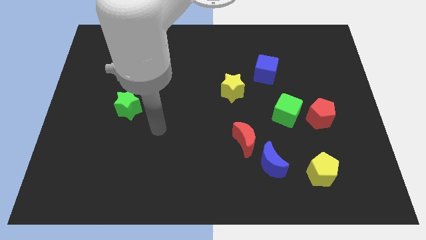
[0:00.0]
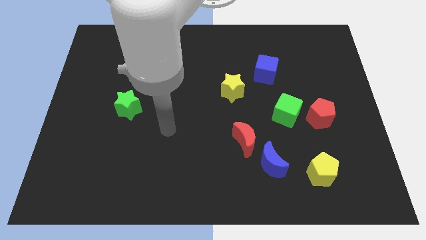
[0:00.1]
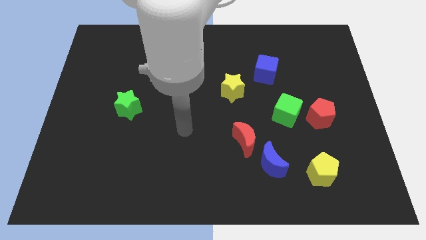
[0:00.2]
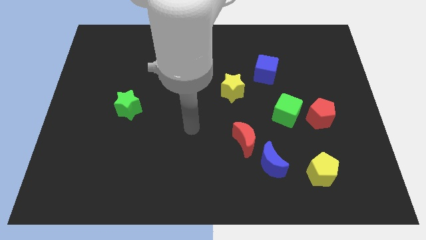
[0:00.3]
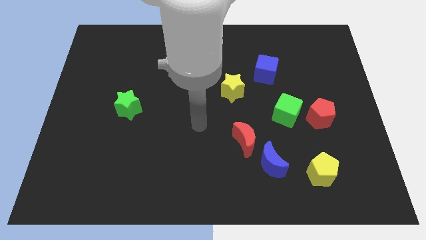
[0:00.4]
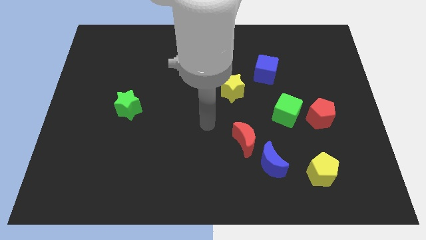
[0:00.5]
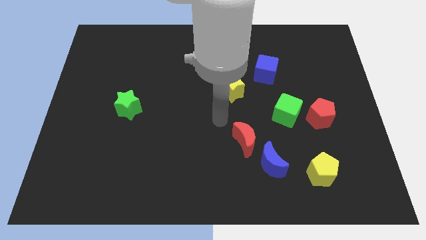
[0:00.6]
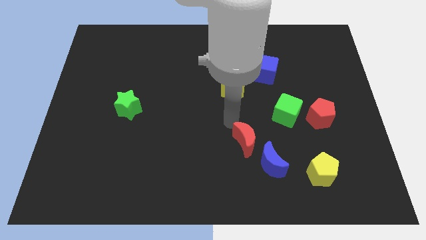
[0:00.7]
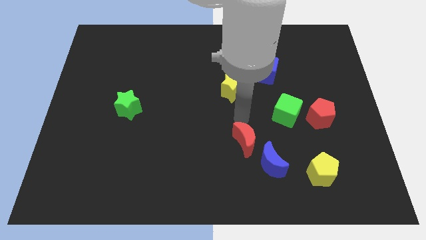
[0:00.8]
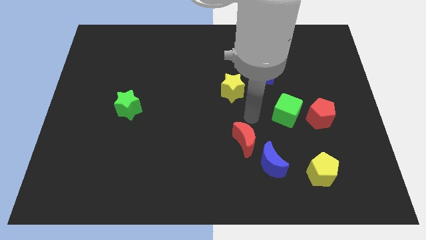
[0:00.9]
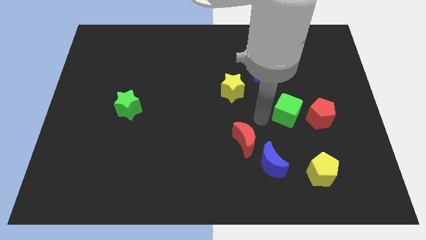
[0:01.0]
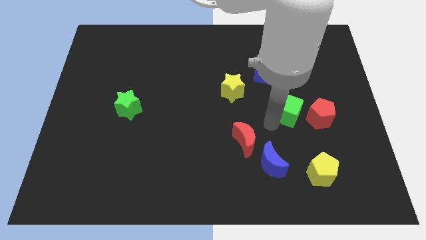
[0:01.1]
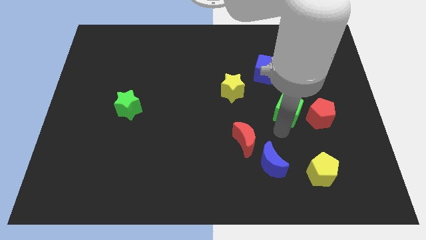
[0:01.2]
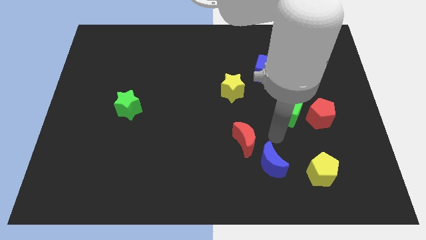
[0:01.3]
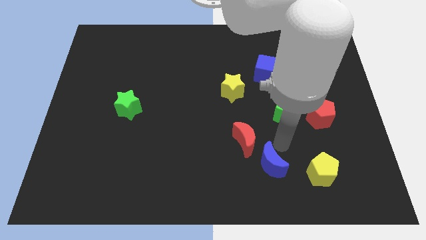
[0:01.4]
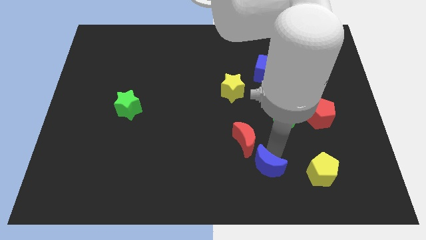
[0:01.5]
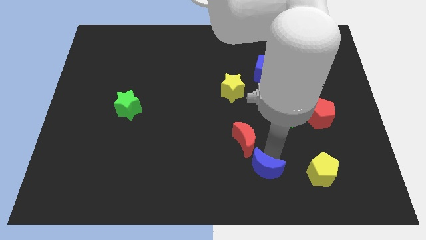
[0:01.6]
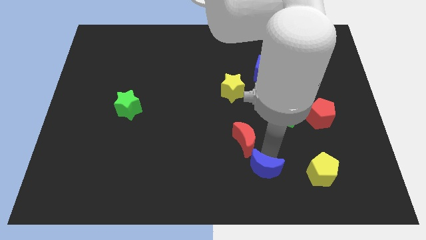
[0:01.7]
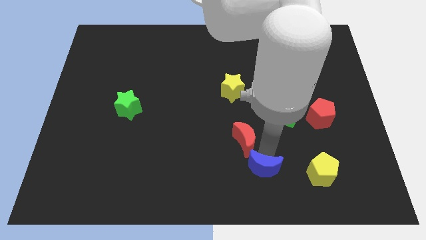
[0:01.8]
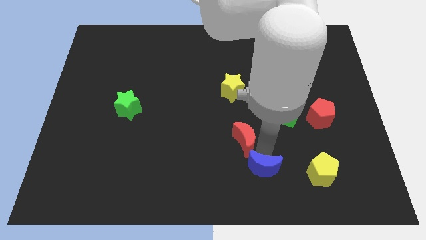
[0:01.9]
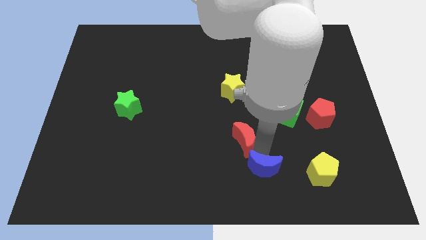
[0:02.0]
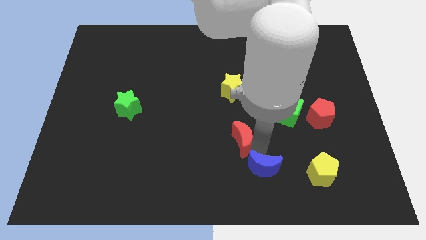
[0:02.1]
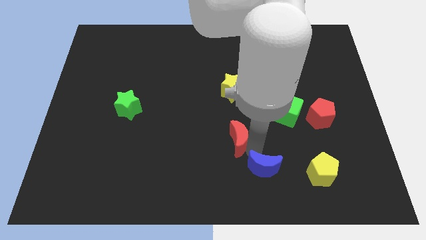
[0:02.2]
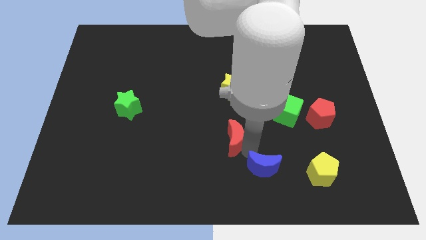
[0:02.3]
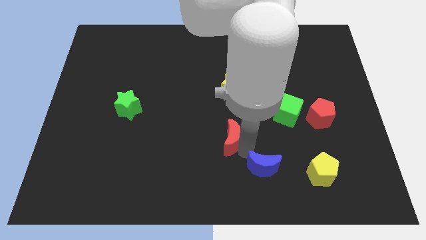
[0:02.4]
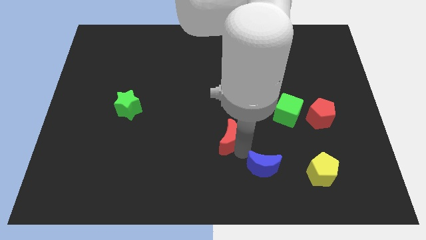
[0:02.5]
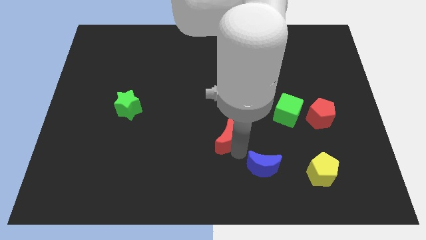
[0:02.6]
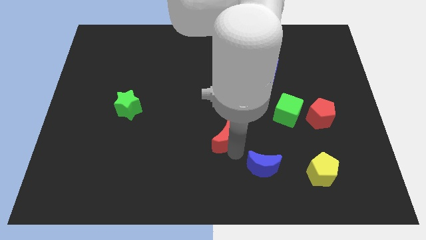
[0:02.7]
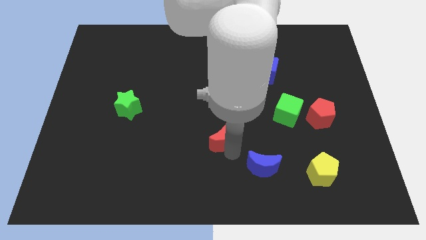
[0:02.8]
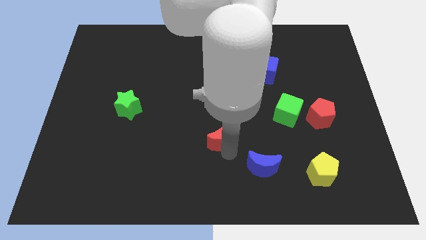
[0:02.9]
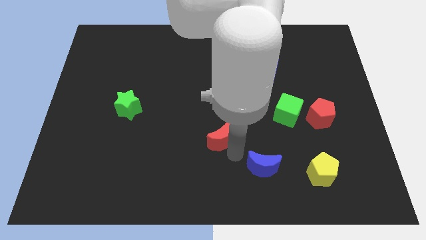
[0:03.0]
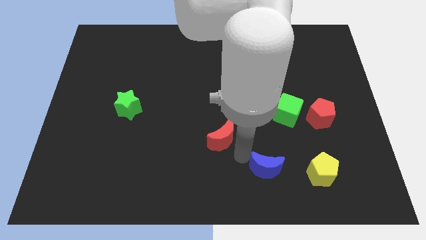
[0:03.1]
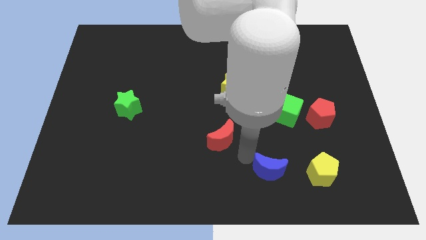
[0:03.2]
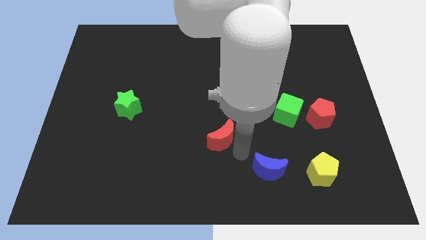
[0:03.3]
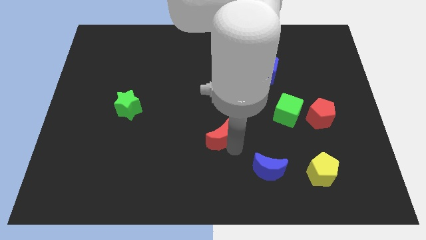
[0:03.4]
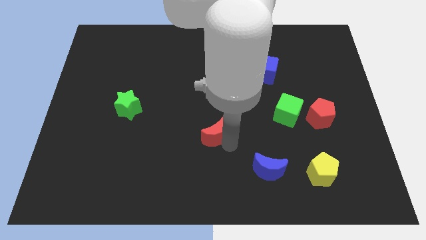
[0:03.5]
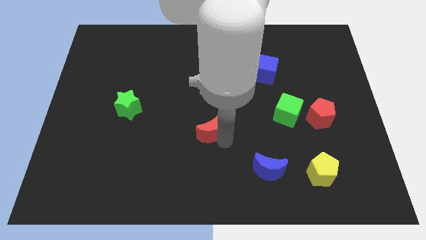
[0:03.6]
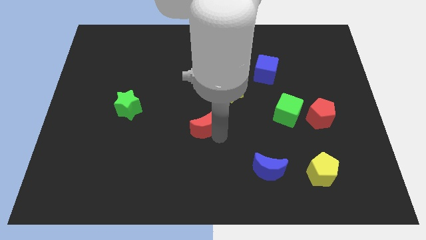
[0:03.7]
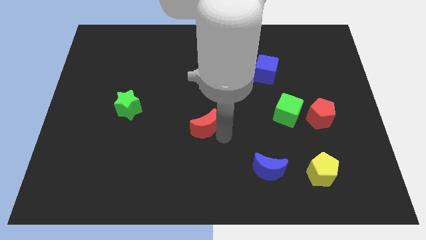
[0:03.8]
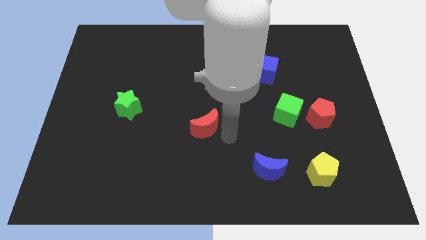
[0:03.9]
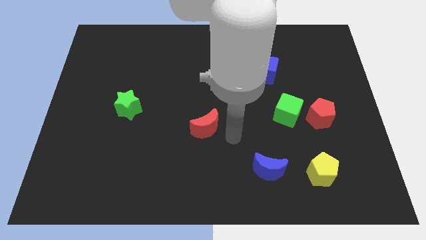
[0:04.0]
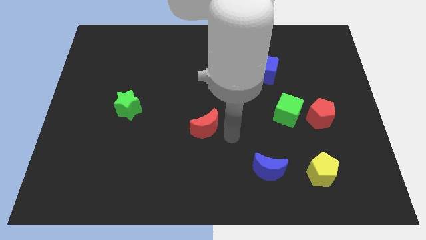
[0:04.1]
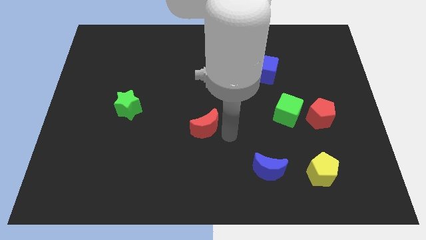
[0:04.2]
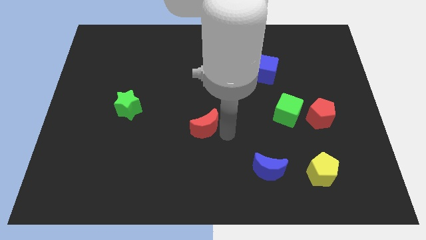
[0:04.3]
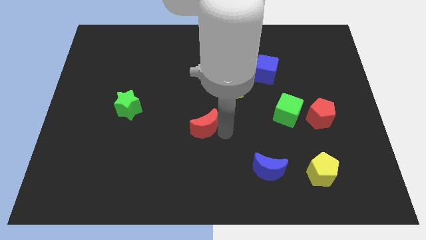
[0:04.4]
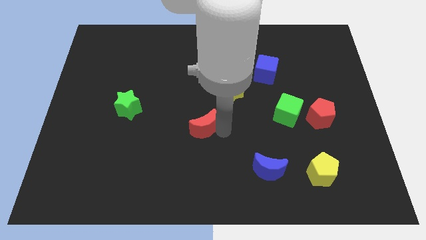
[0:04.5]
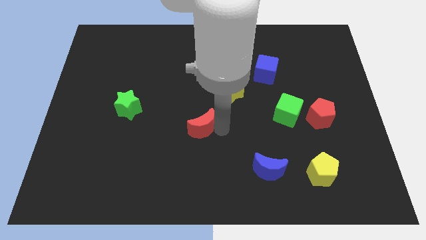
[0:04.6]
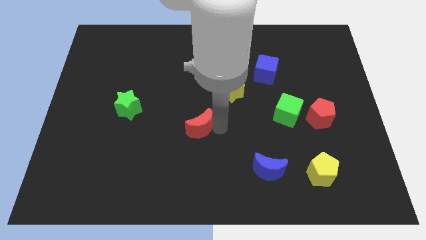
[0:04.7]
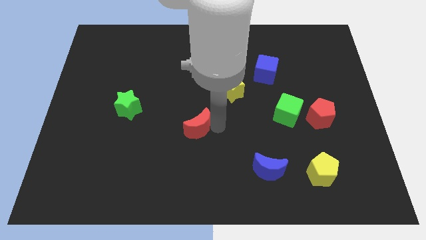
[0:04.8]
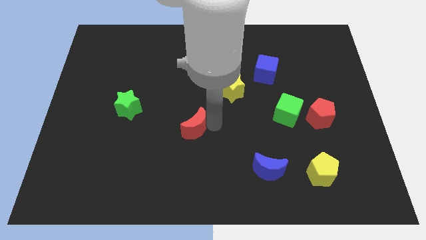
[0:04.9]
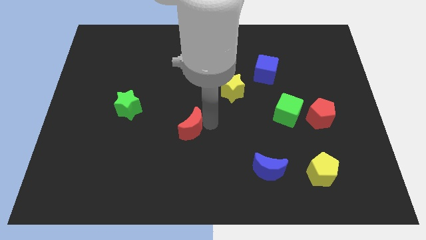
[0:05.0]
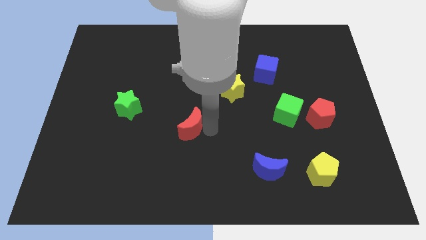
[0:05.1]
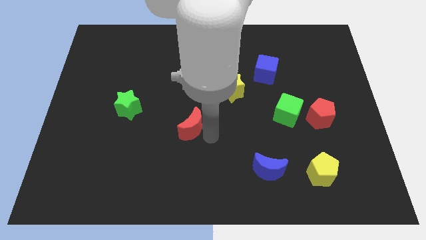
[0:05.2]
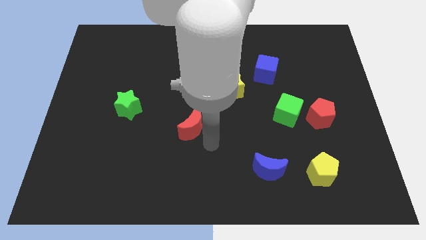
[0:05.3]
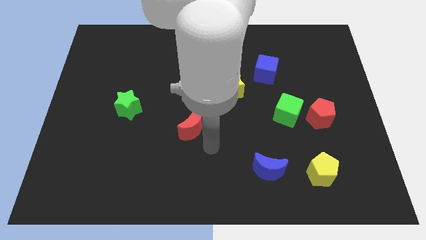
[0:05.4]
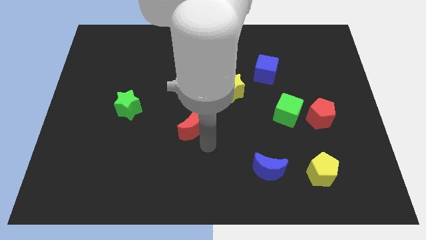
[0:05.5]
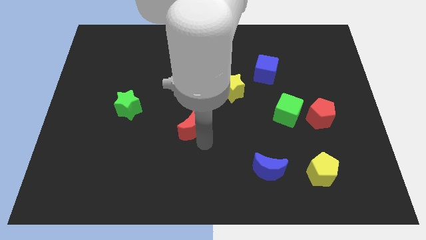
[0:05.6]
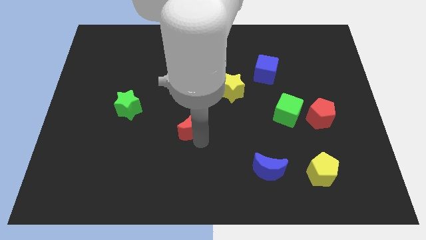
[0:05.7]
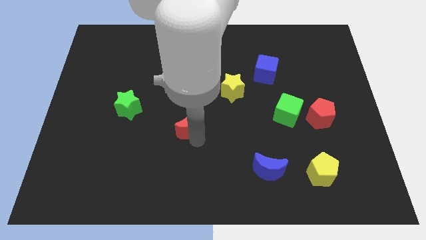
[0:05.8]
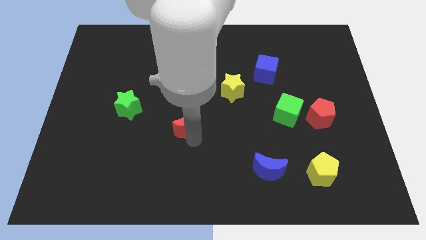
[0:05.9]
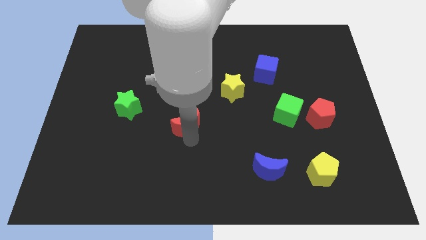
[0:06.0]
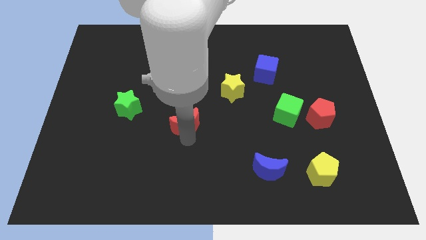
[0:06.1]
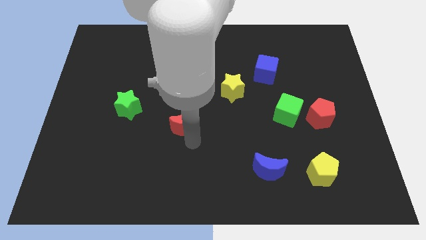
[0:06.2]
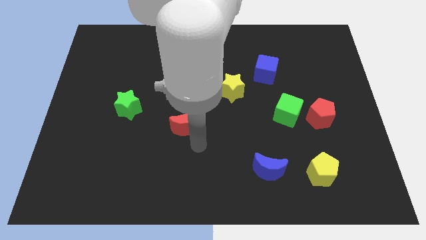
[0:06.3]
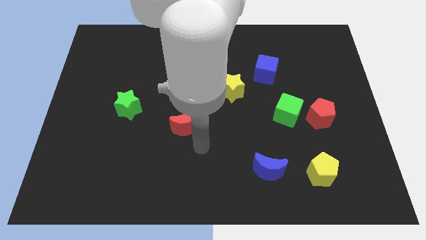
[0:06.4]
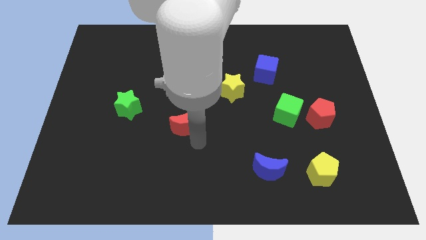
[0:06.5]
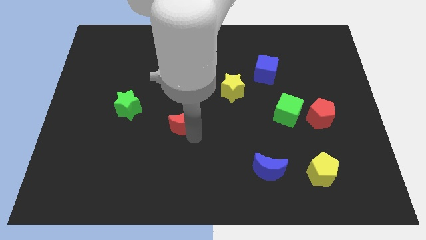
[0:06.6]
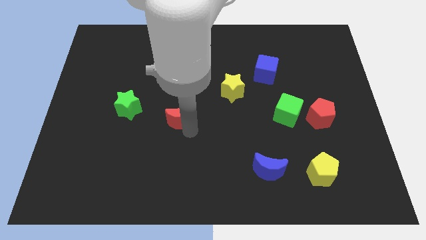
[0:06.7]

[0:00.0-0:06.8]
move the red moon right of the green star
